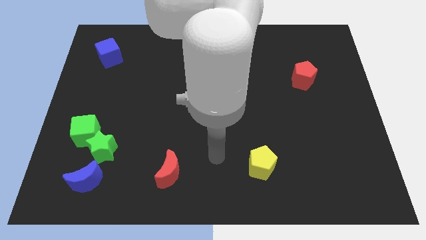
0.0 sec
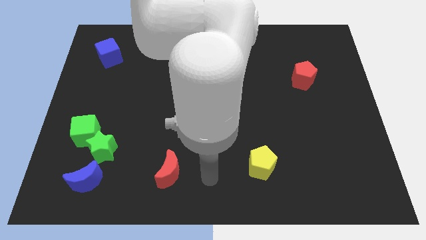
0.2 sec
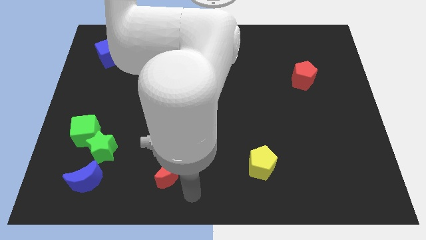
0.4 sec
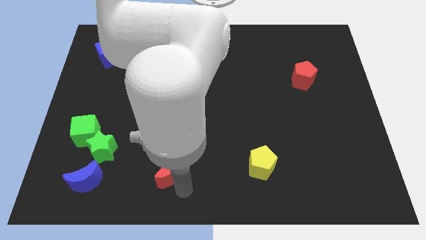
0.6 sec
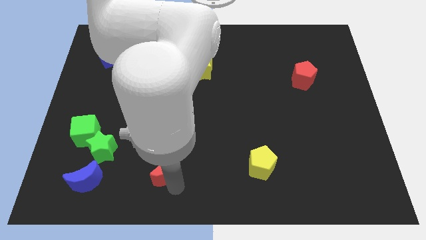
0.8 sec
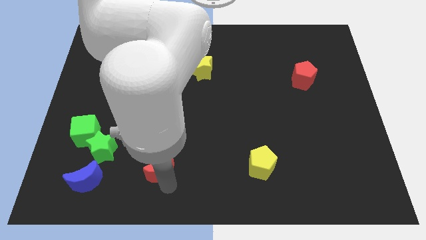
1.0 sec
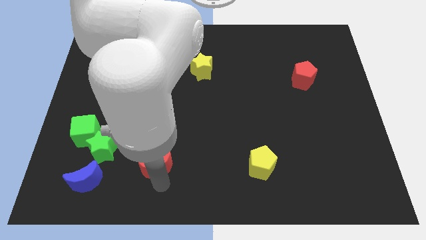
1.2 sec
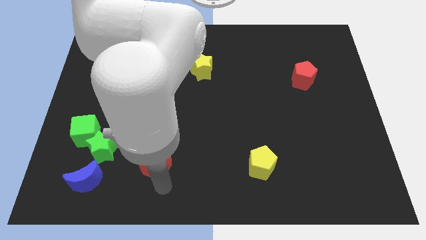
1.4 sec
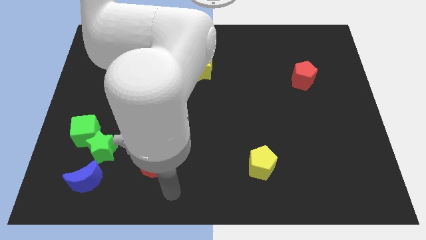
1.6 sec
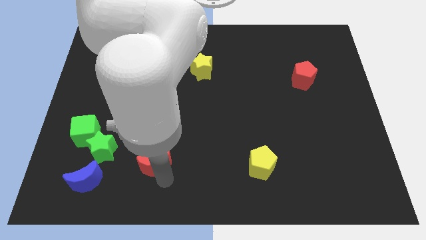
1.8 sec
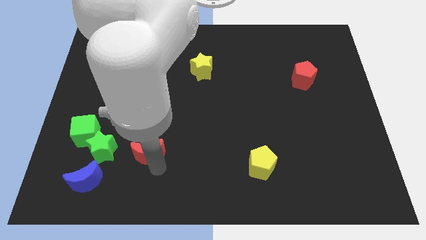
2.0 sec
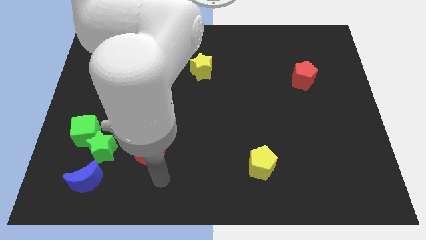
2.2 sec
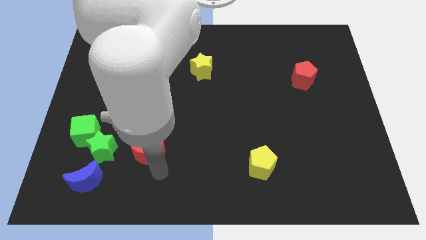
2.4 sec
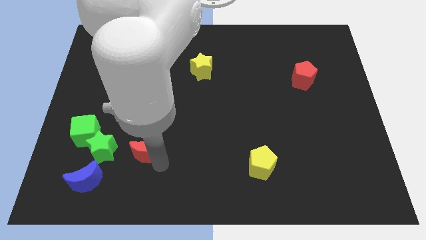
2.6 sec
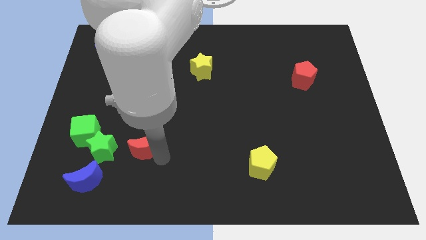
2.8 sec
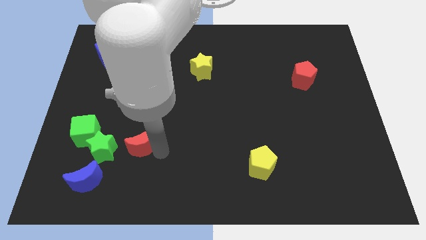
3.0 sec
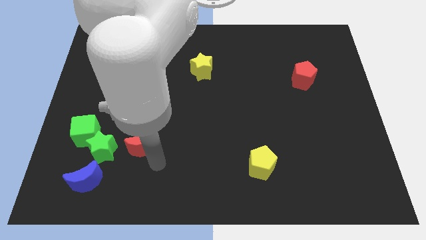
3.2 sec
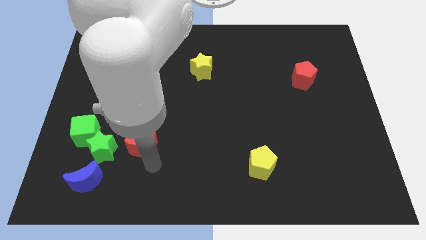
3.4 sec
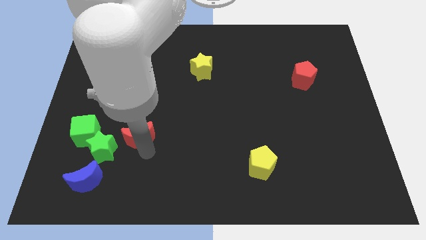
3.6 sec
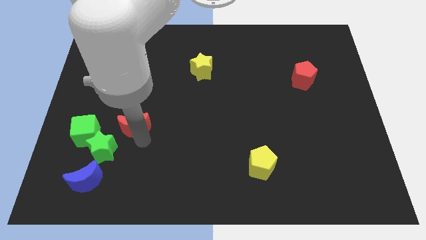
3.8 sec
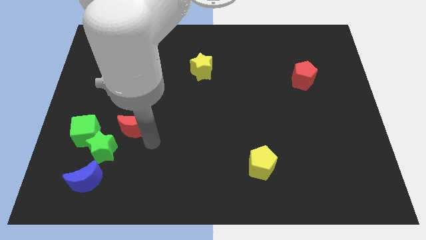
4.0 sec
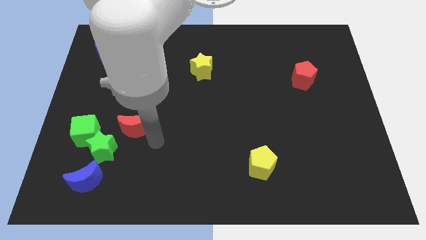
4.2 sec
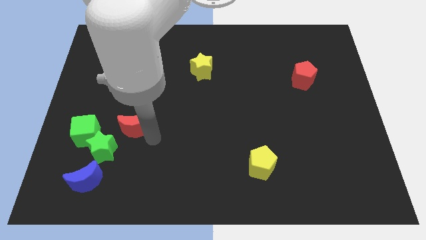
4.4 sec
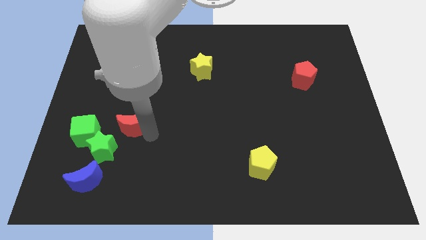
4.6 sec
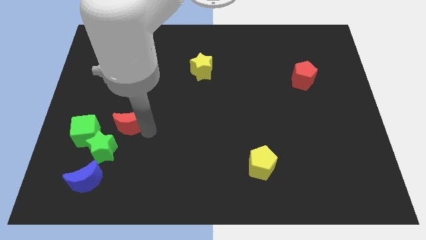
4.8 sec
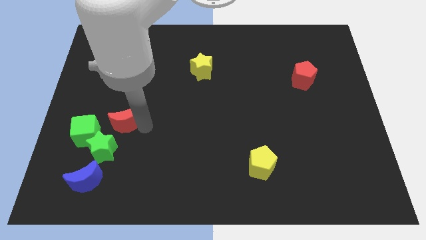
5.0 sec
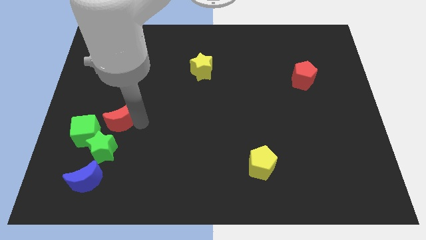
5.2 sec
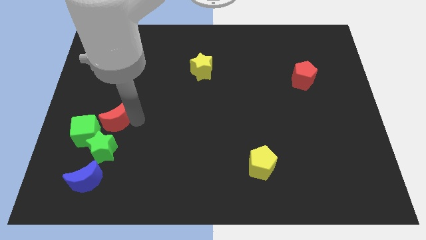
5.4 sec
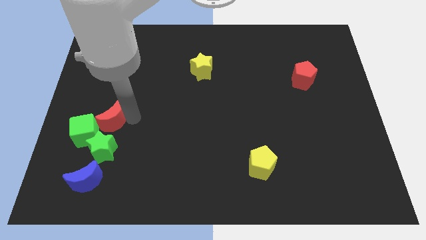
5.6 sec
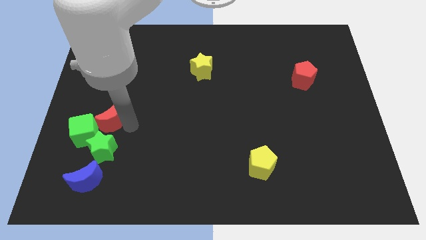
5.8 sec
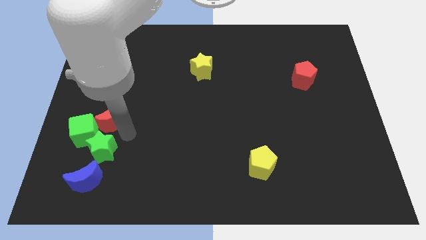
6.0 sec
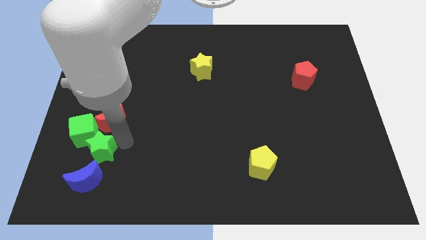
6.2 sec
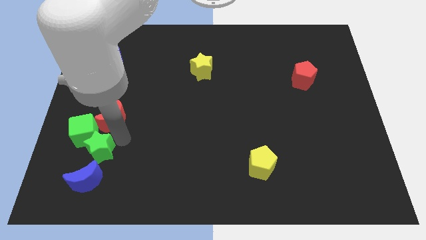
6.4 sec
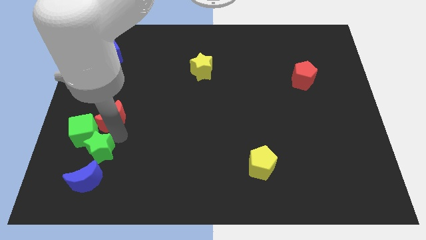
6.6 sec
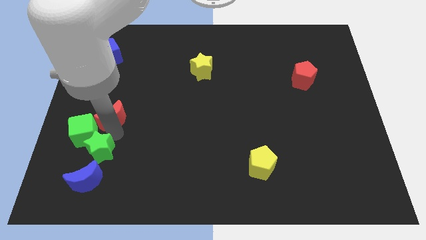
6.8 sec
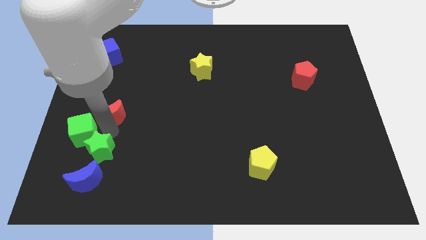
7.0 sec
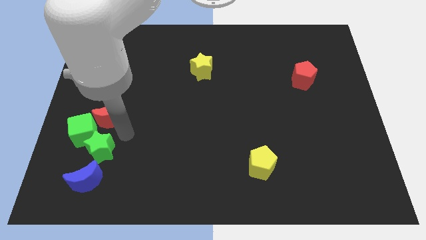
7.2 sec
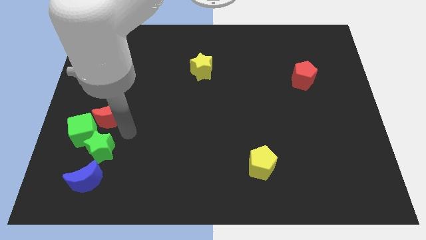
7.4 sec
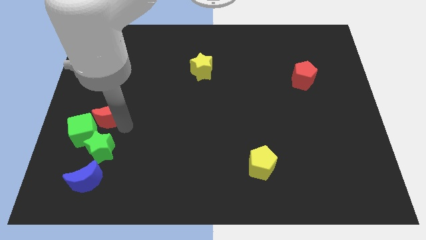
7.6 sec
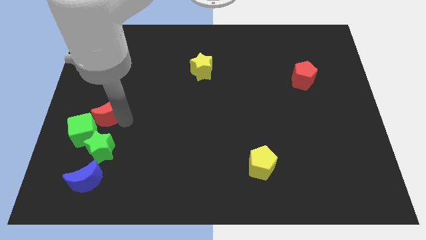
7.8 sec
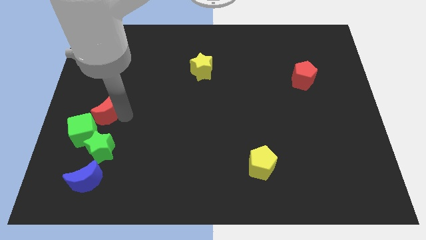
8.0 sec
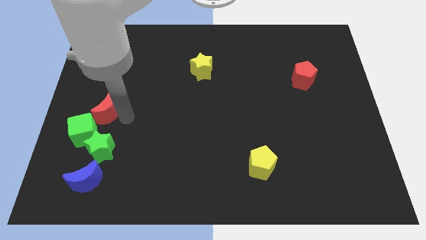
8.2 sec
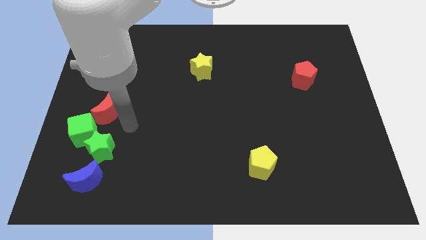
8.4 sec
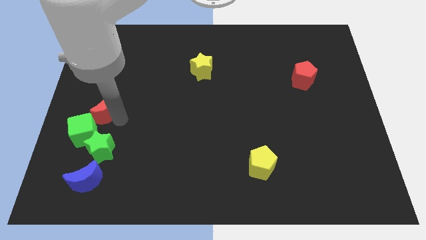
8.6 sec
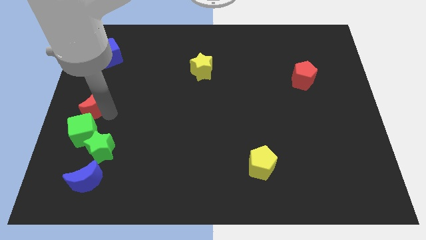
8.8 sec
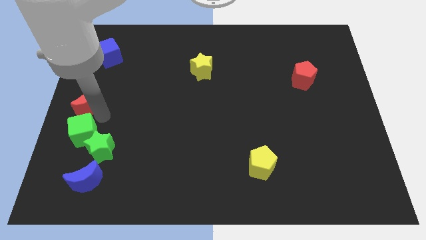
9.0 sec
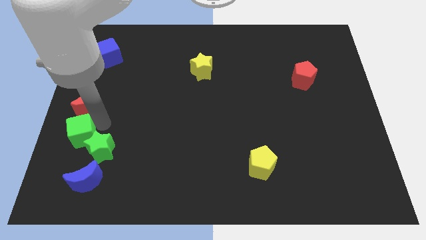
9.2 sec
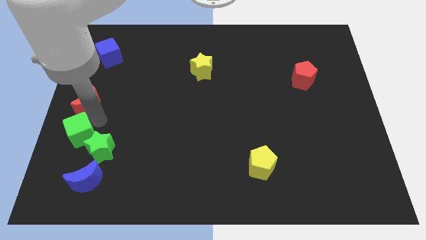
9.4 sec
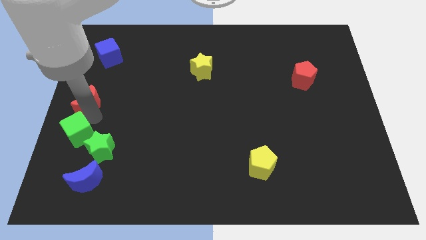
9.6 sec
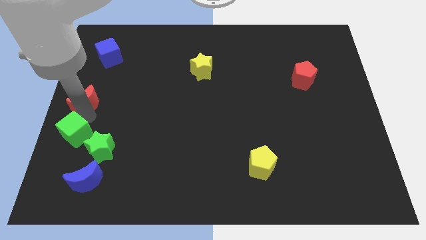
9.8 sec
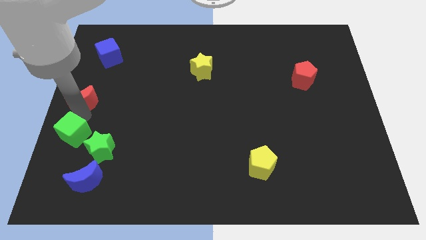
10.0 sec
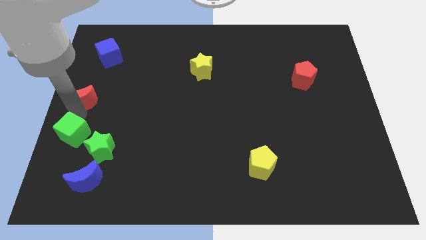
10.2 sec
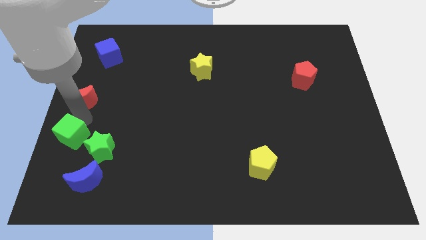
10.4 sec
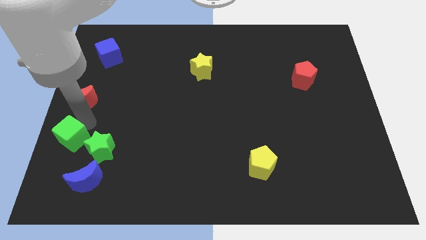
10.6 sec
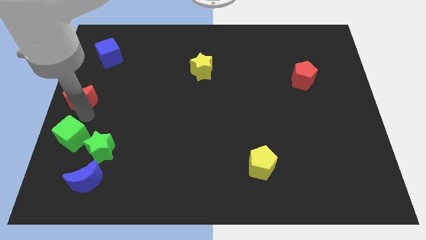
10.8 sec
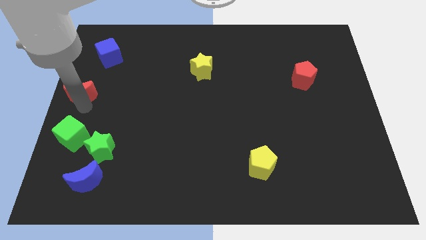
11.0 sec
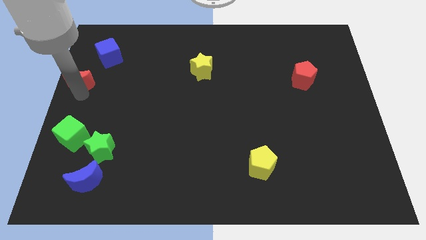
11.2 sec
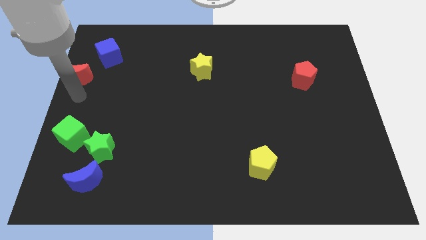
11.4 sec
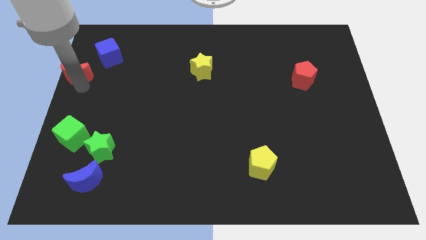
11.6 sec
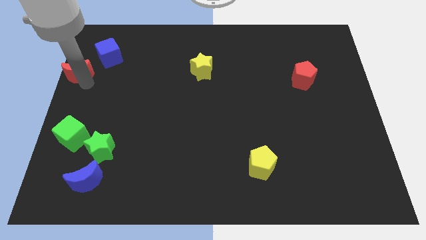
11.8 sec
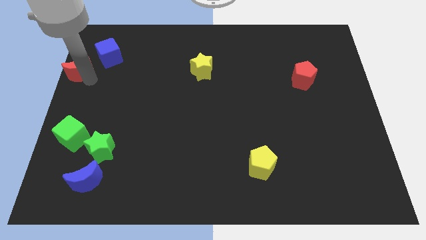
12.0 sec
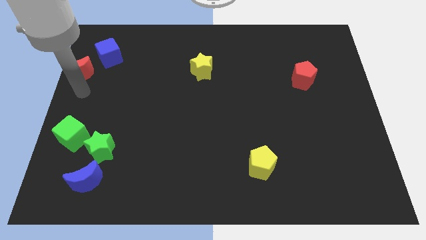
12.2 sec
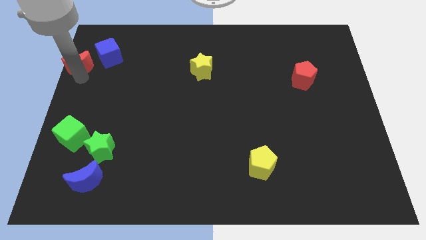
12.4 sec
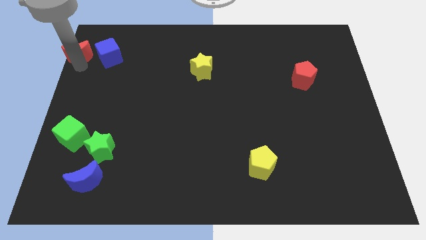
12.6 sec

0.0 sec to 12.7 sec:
move the red moon to the top left of the board
